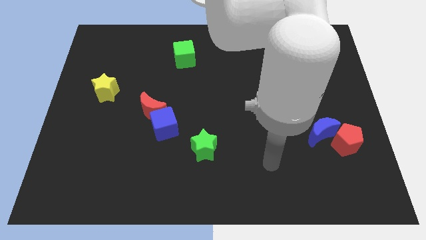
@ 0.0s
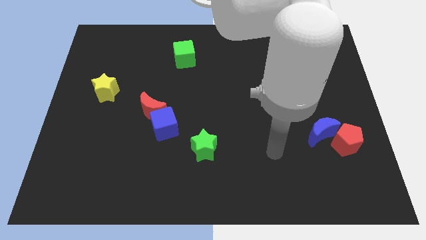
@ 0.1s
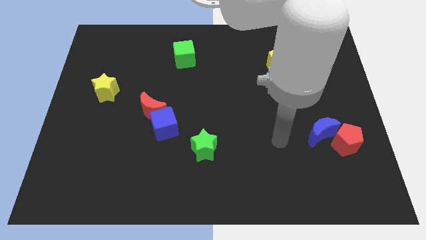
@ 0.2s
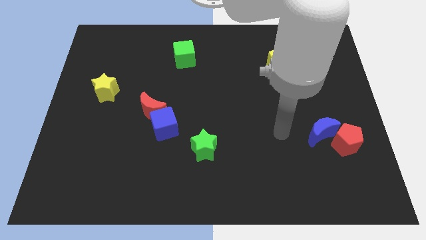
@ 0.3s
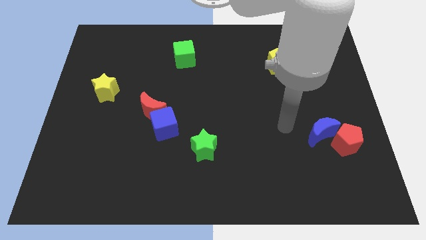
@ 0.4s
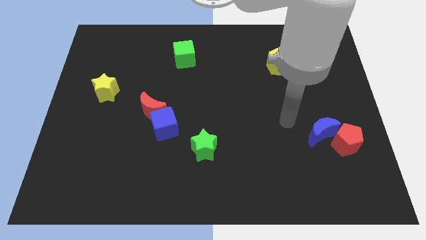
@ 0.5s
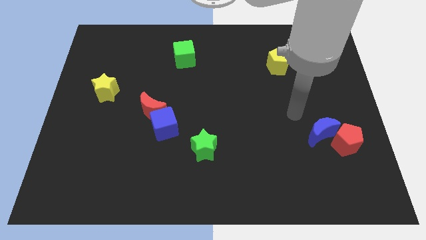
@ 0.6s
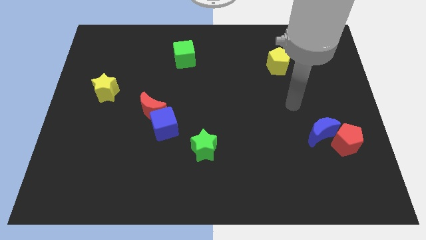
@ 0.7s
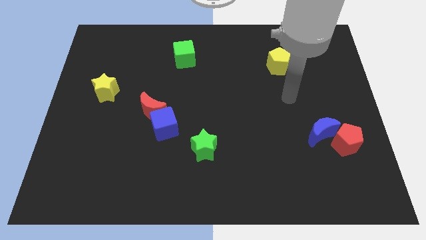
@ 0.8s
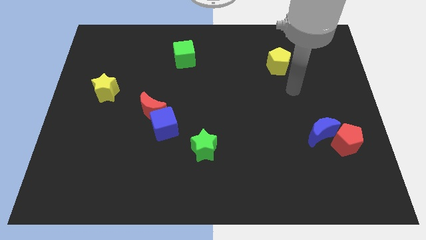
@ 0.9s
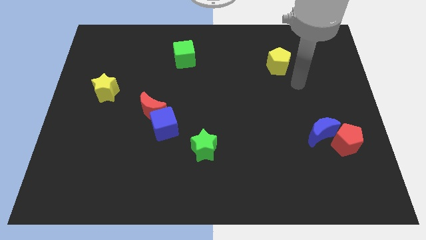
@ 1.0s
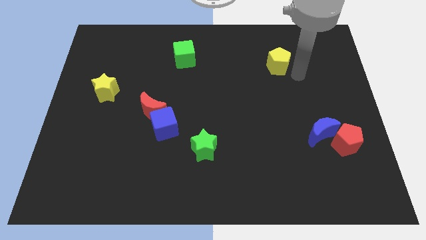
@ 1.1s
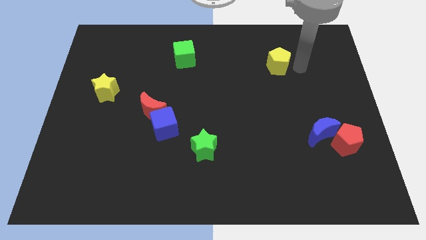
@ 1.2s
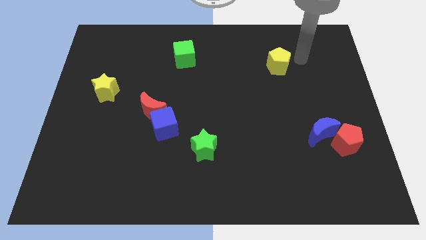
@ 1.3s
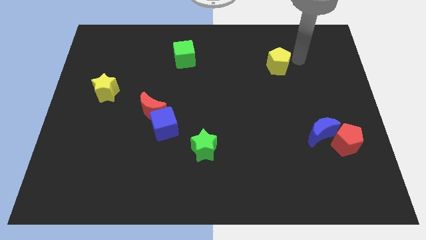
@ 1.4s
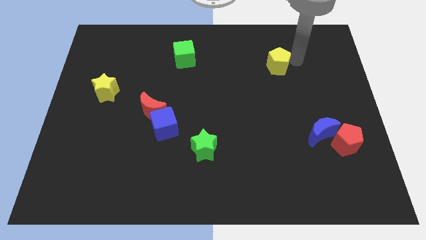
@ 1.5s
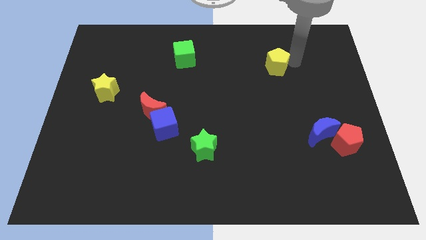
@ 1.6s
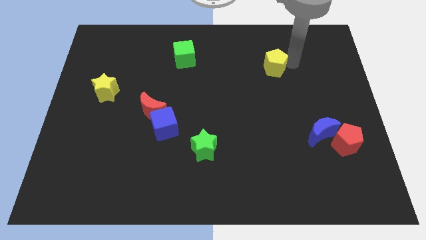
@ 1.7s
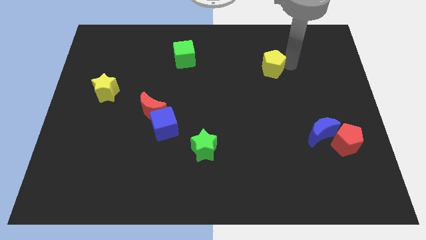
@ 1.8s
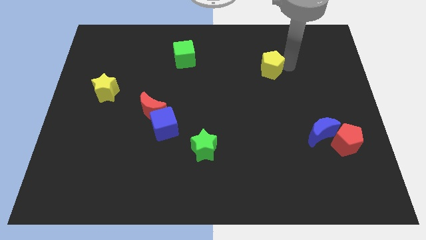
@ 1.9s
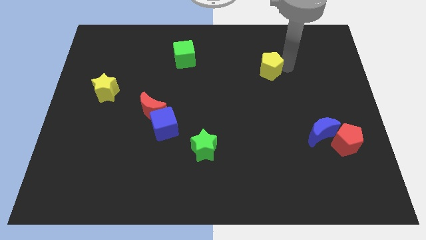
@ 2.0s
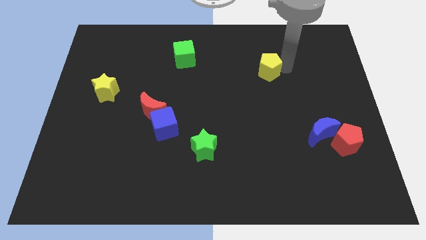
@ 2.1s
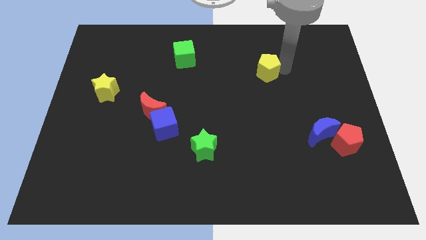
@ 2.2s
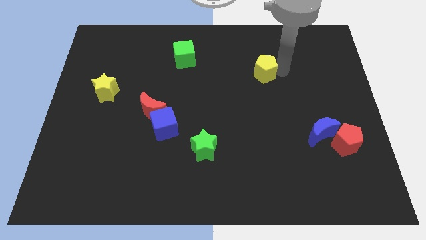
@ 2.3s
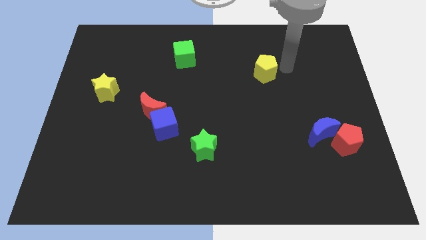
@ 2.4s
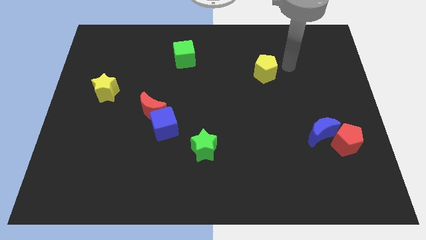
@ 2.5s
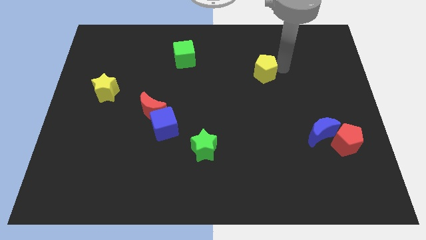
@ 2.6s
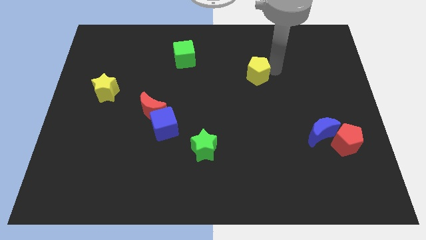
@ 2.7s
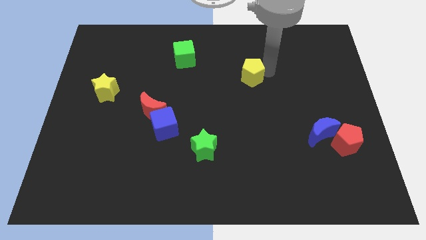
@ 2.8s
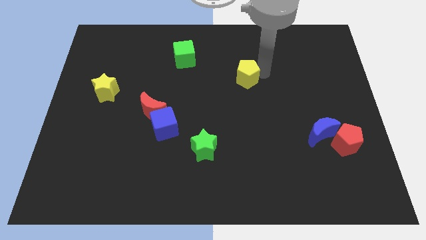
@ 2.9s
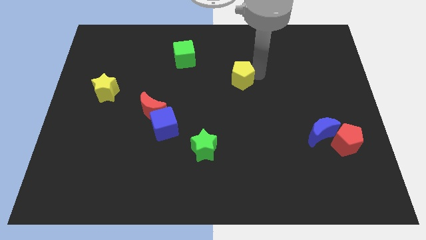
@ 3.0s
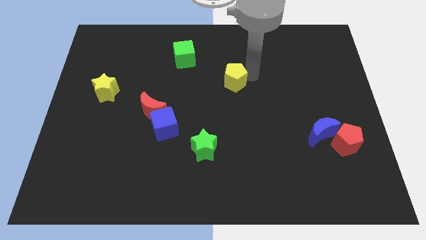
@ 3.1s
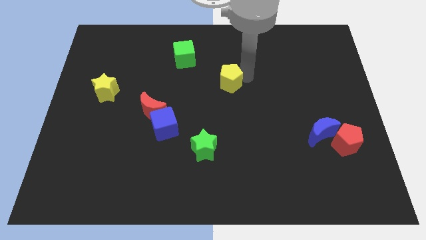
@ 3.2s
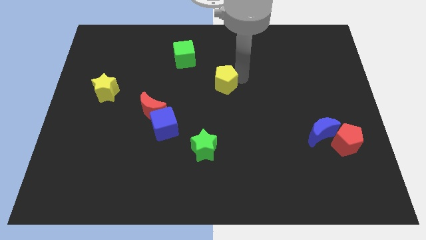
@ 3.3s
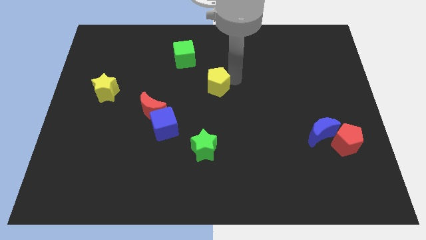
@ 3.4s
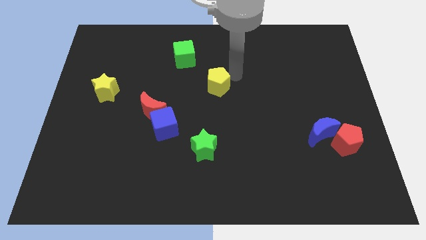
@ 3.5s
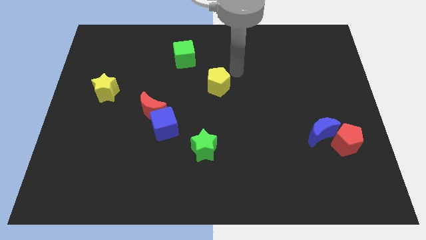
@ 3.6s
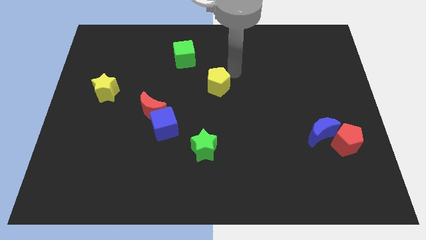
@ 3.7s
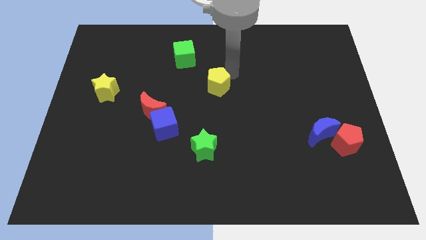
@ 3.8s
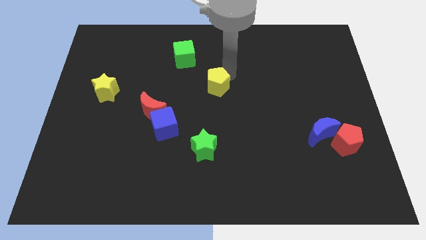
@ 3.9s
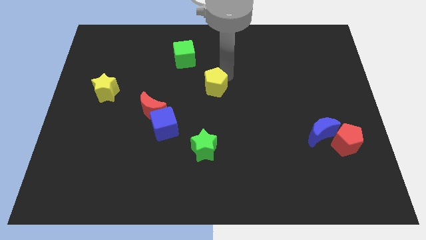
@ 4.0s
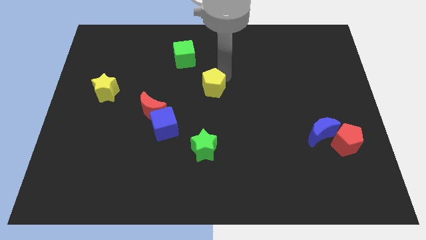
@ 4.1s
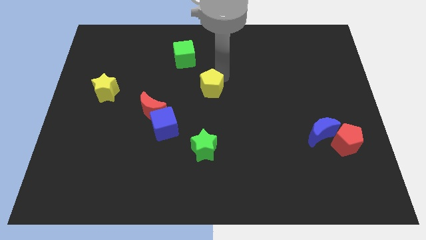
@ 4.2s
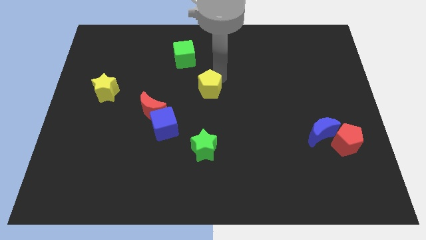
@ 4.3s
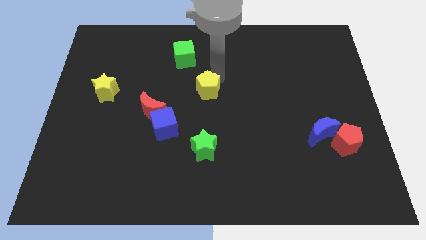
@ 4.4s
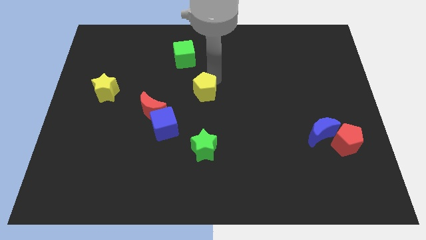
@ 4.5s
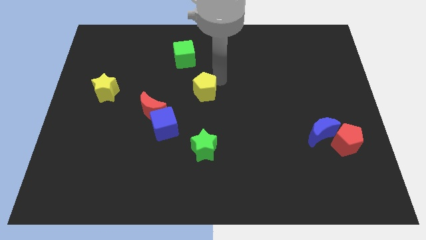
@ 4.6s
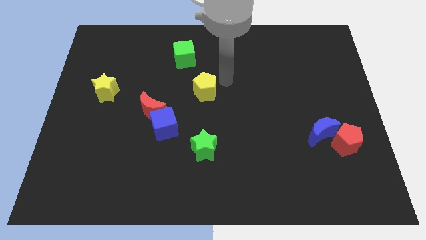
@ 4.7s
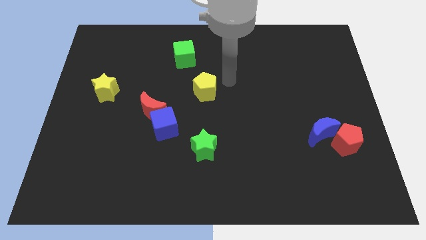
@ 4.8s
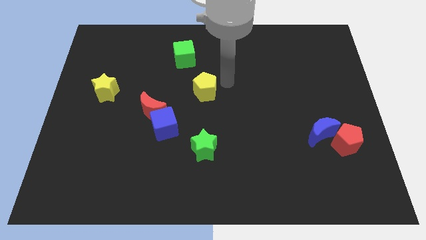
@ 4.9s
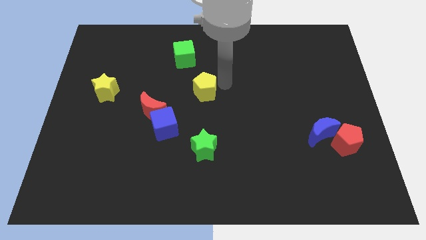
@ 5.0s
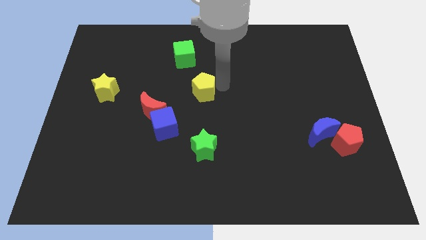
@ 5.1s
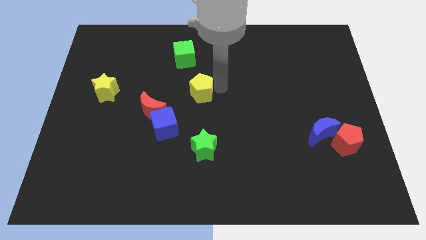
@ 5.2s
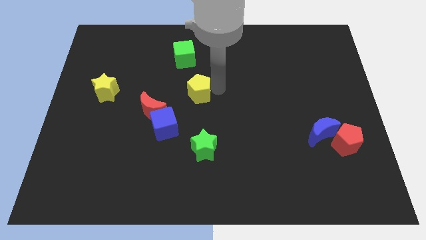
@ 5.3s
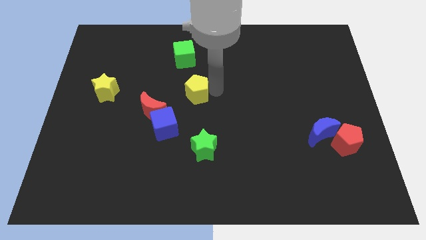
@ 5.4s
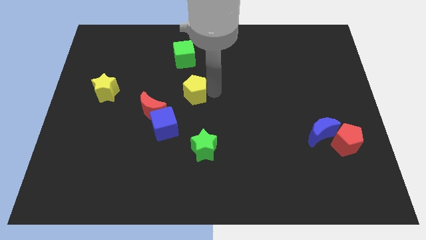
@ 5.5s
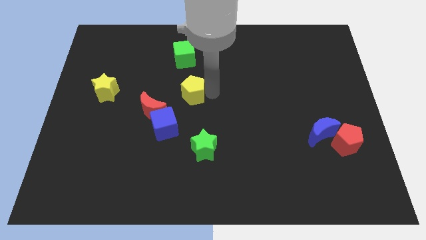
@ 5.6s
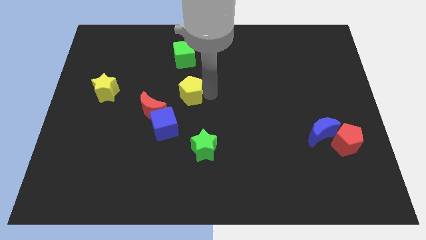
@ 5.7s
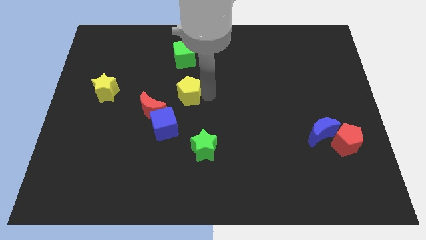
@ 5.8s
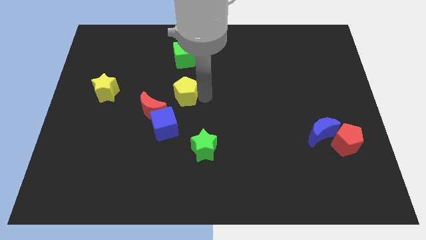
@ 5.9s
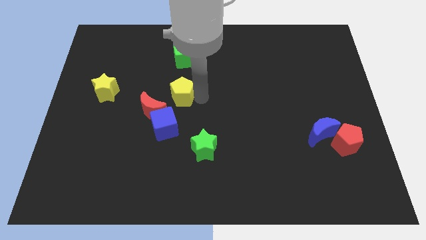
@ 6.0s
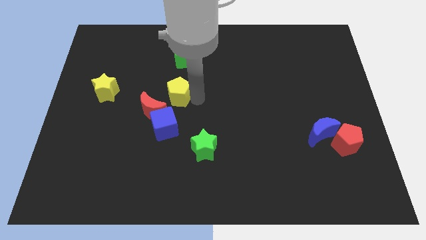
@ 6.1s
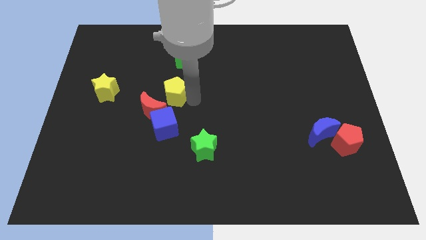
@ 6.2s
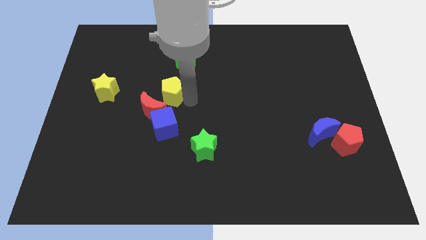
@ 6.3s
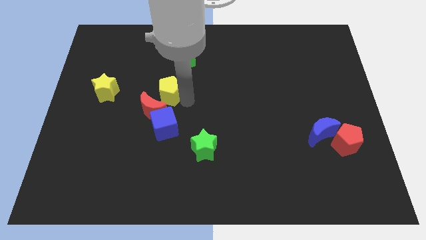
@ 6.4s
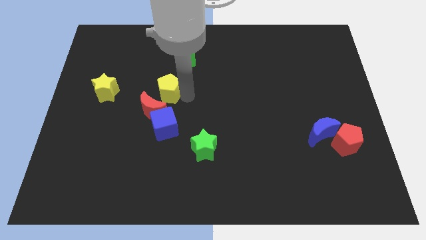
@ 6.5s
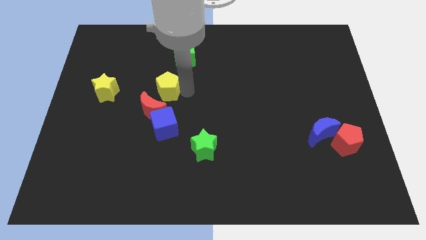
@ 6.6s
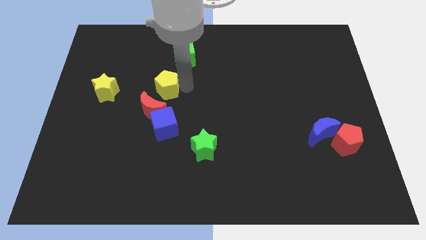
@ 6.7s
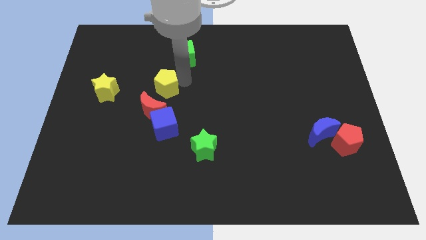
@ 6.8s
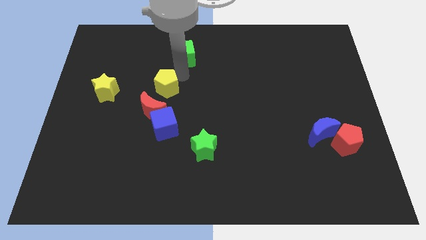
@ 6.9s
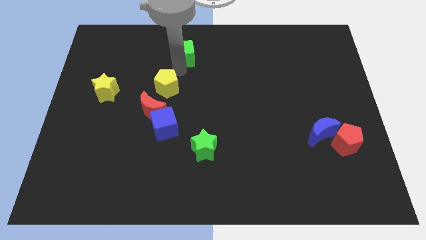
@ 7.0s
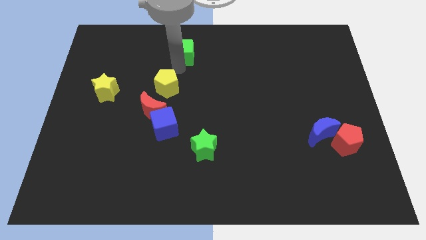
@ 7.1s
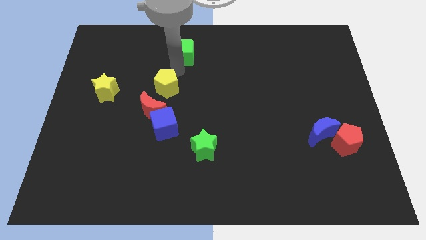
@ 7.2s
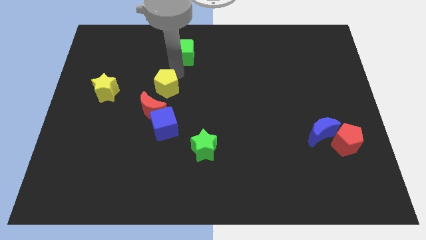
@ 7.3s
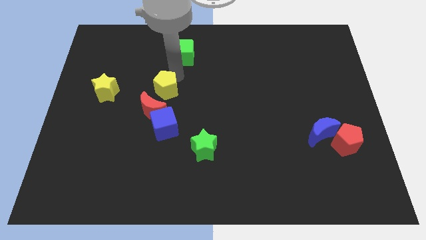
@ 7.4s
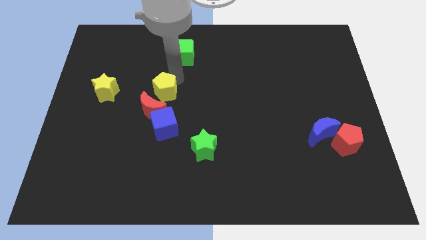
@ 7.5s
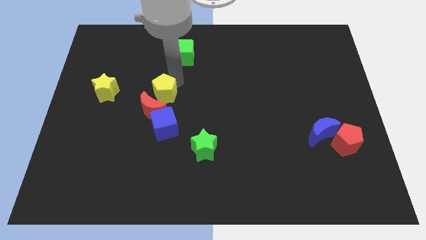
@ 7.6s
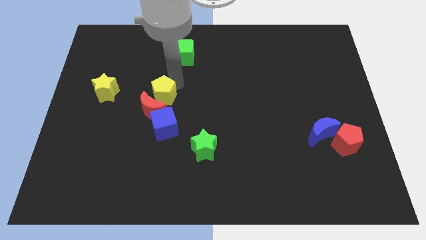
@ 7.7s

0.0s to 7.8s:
push the yellow pentagon to the red moon
